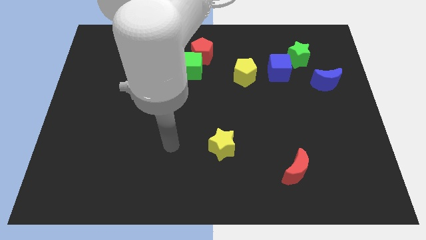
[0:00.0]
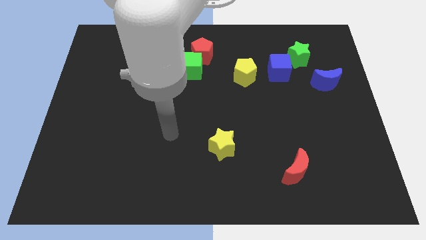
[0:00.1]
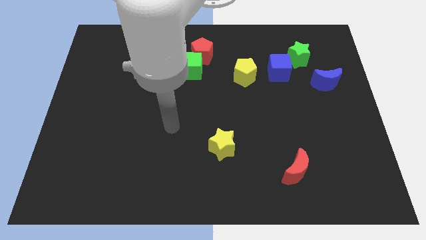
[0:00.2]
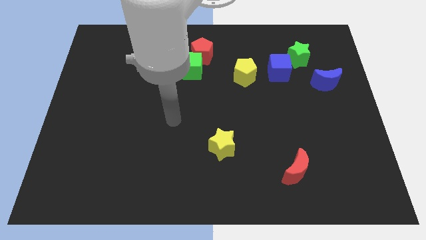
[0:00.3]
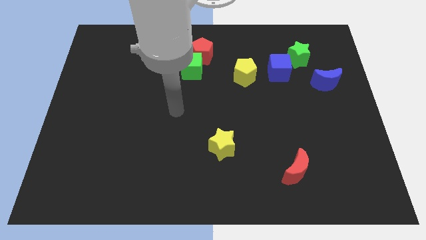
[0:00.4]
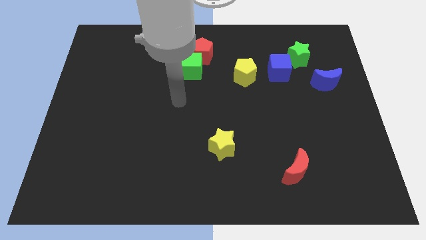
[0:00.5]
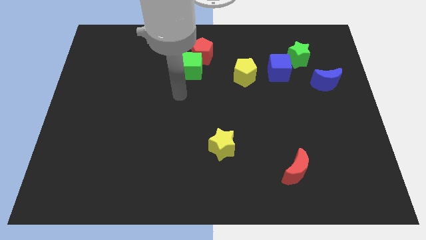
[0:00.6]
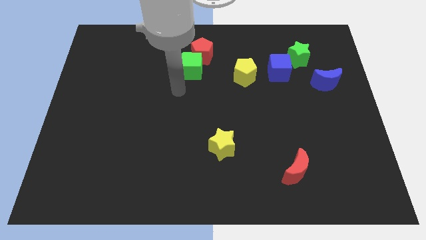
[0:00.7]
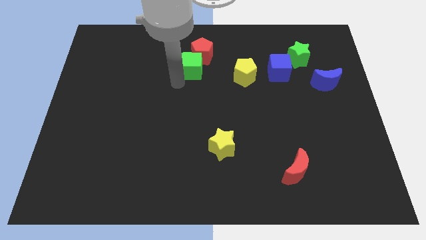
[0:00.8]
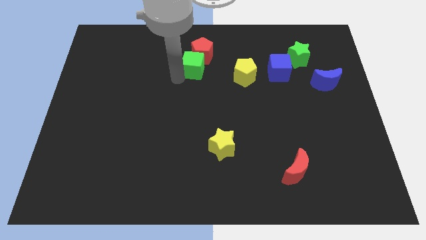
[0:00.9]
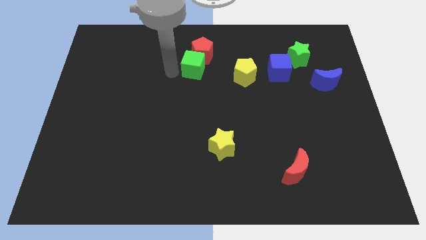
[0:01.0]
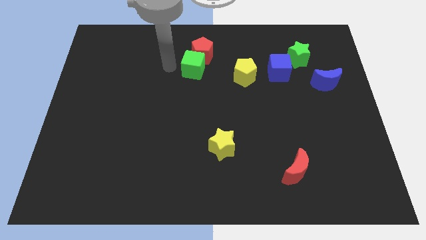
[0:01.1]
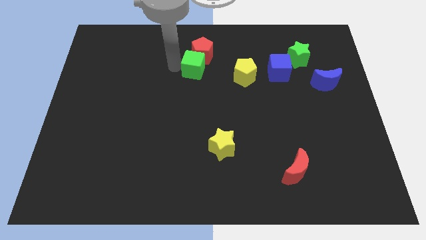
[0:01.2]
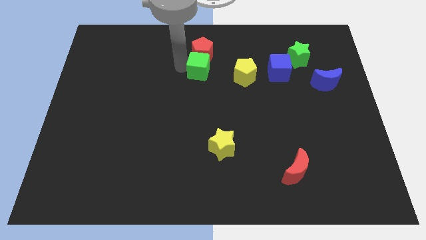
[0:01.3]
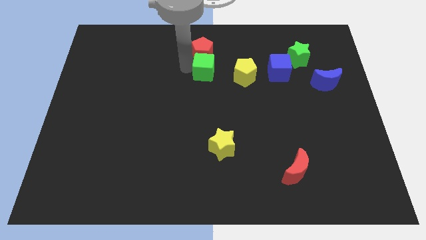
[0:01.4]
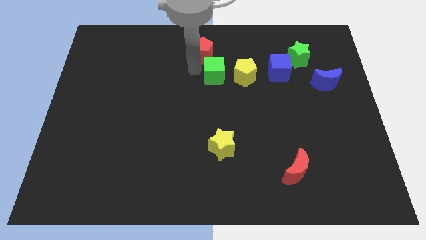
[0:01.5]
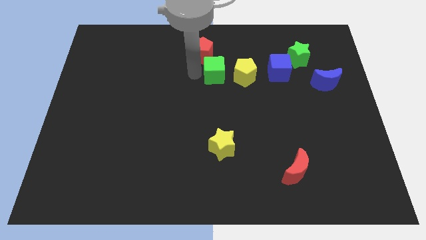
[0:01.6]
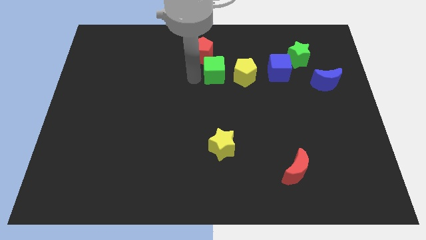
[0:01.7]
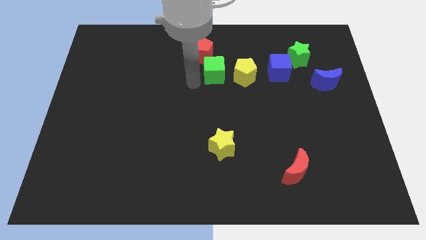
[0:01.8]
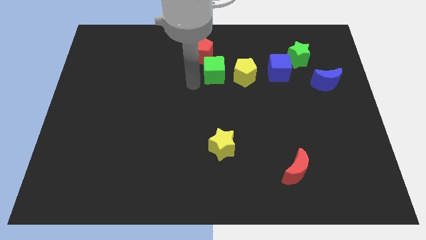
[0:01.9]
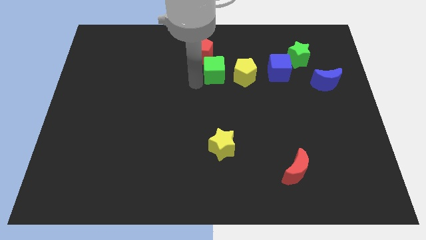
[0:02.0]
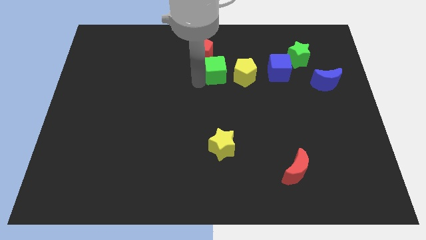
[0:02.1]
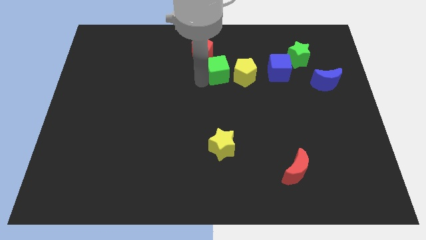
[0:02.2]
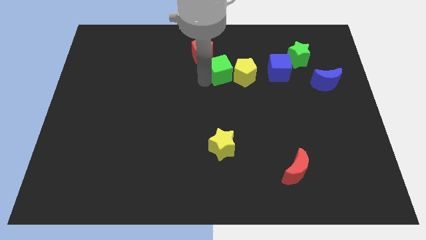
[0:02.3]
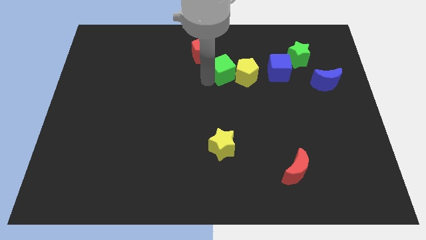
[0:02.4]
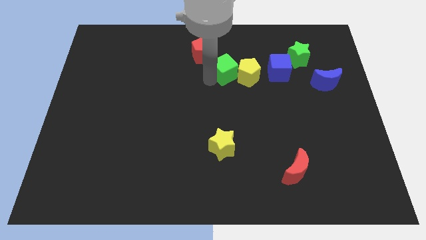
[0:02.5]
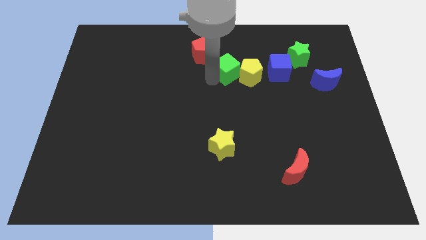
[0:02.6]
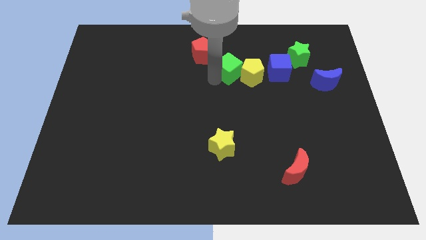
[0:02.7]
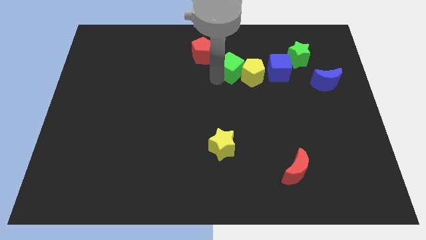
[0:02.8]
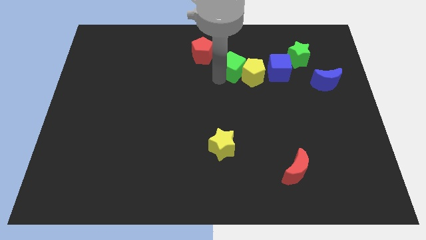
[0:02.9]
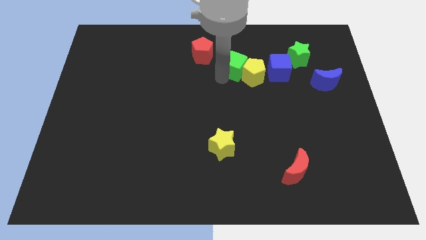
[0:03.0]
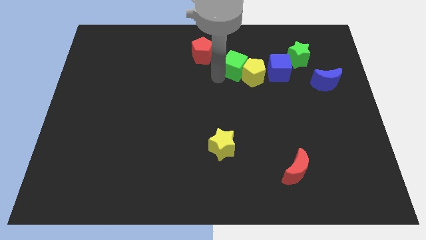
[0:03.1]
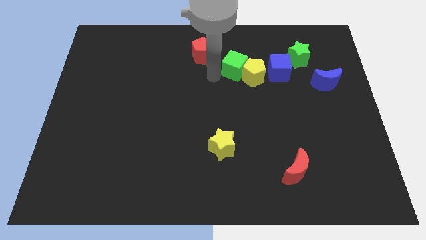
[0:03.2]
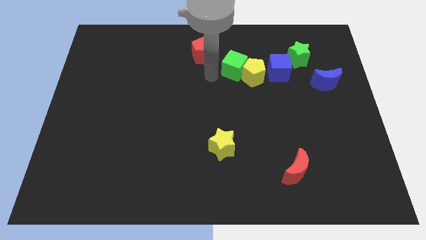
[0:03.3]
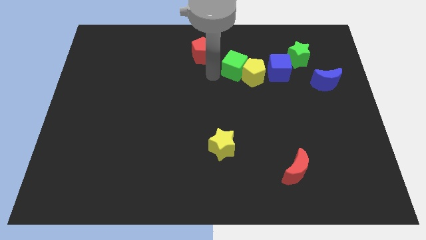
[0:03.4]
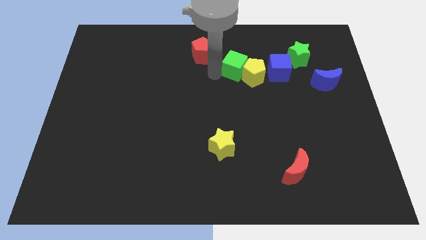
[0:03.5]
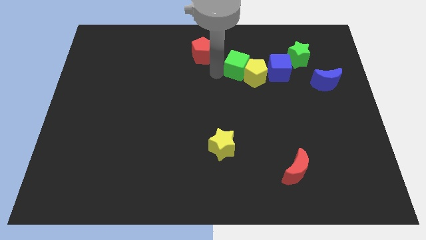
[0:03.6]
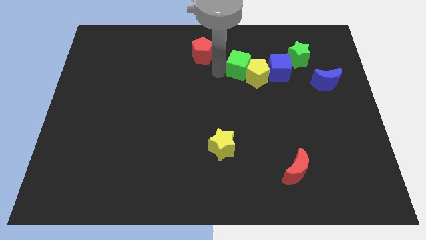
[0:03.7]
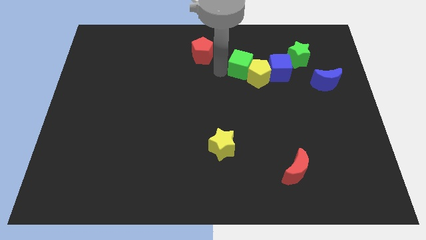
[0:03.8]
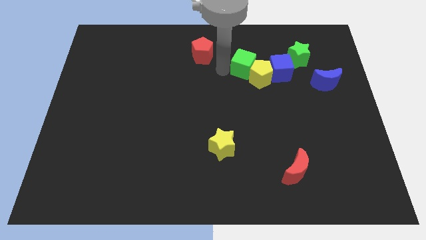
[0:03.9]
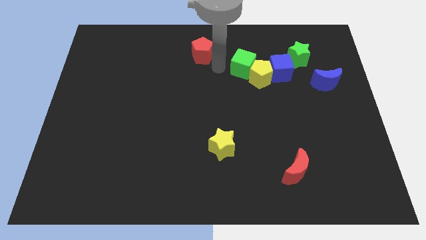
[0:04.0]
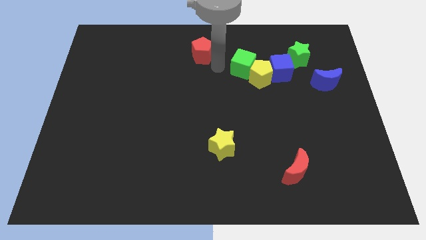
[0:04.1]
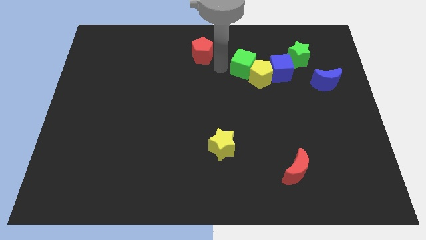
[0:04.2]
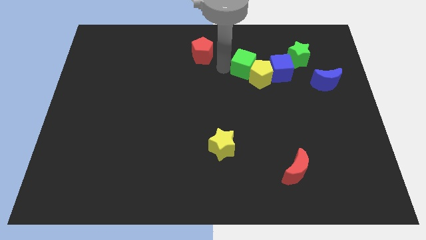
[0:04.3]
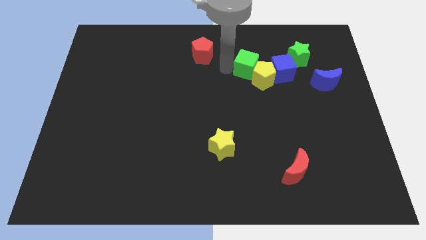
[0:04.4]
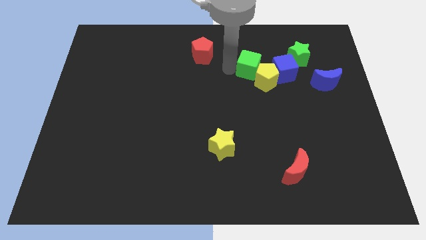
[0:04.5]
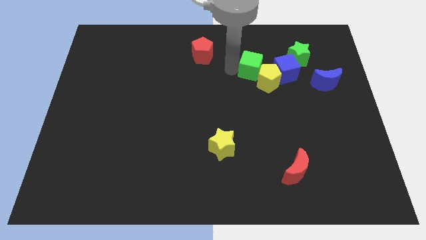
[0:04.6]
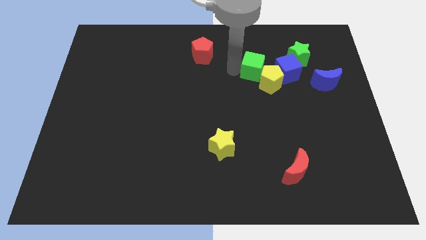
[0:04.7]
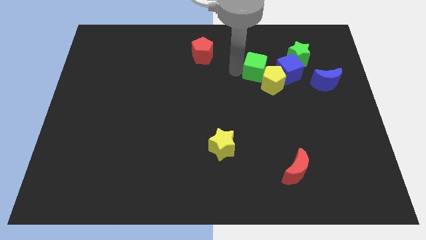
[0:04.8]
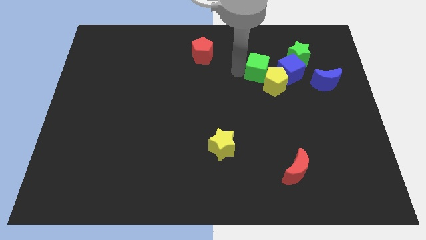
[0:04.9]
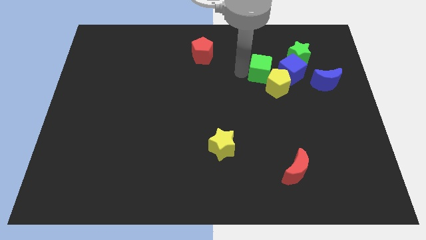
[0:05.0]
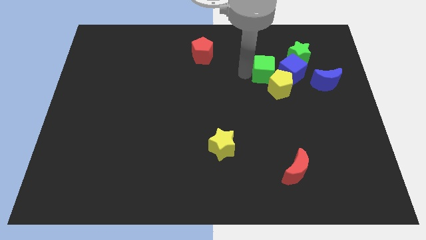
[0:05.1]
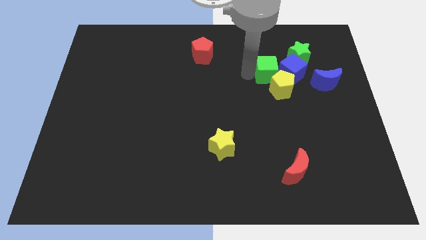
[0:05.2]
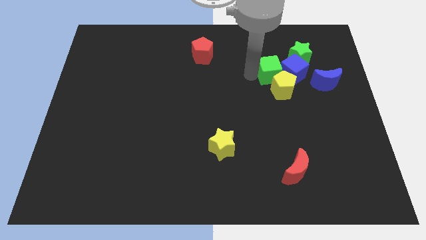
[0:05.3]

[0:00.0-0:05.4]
slide the green cube to the blue cube

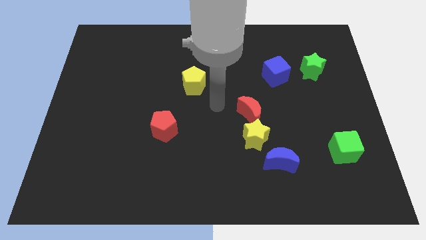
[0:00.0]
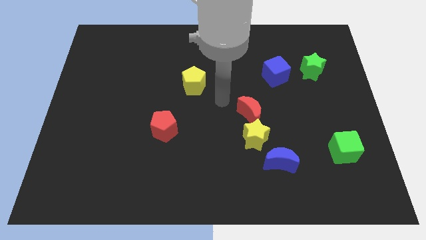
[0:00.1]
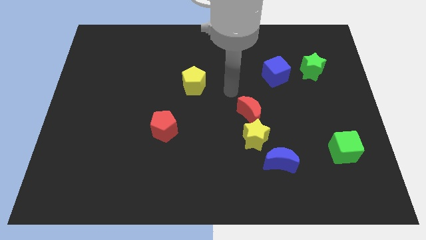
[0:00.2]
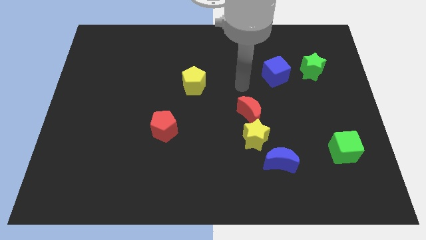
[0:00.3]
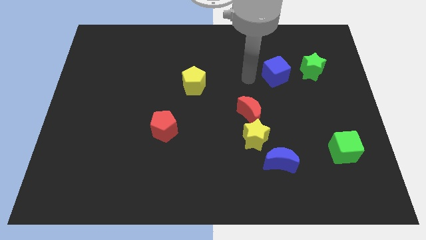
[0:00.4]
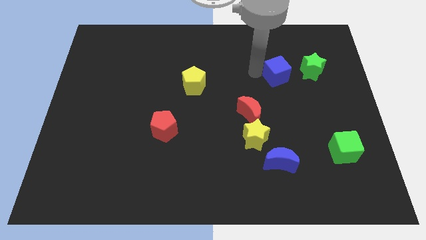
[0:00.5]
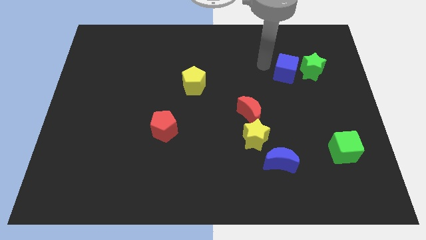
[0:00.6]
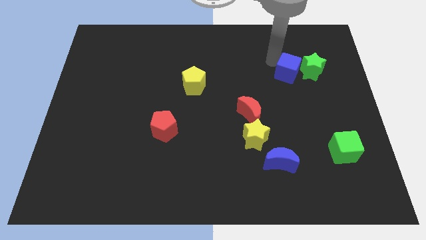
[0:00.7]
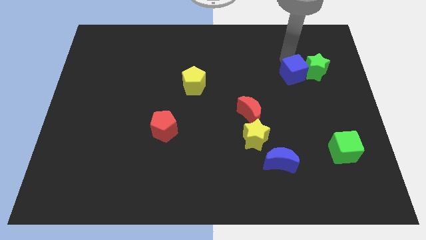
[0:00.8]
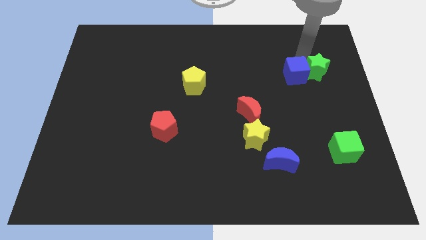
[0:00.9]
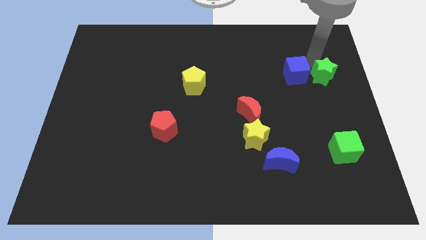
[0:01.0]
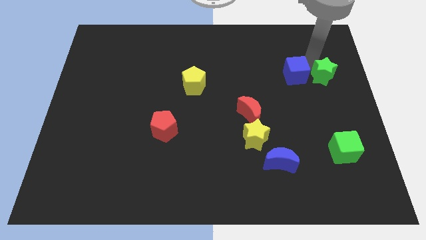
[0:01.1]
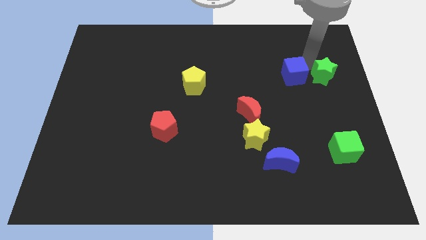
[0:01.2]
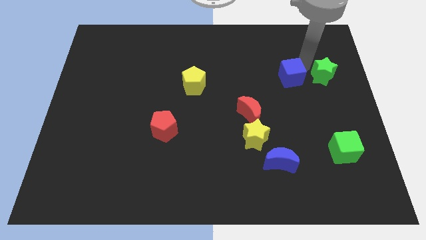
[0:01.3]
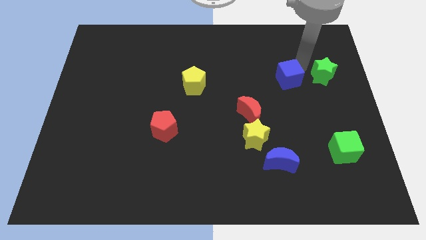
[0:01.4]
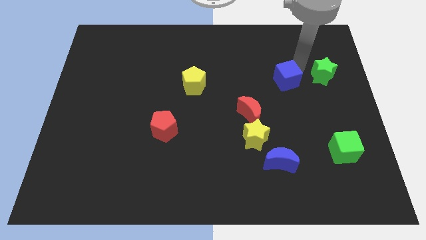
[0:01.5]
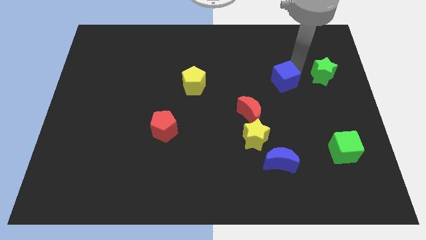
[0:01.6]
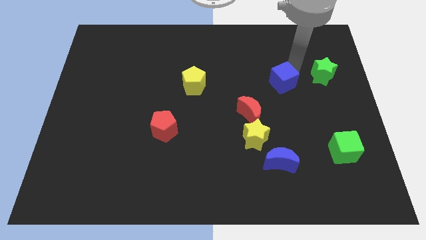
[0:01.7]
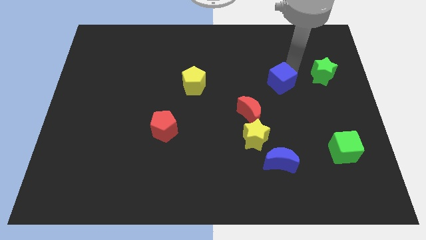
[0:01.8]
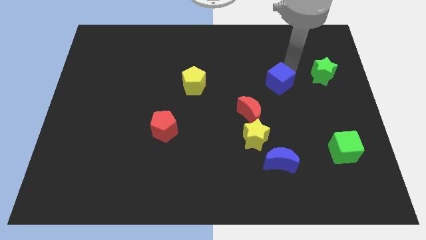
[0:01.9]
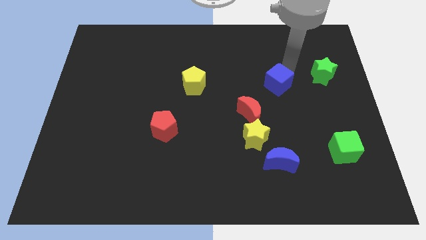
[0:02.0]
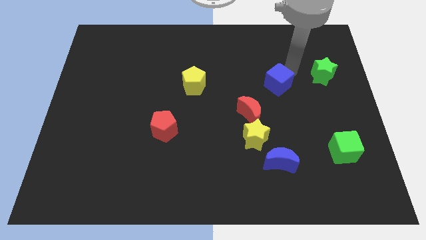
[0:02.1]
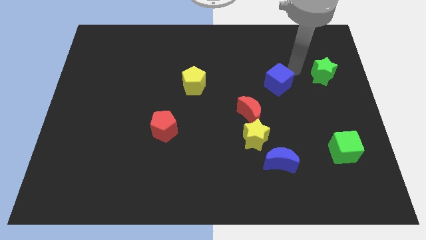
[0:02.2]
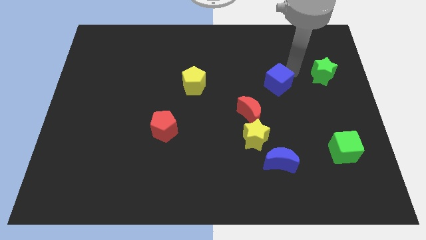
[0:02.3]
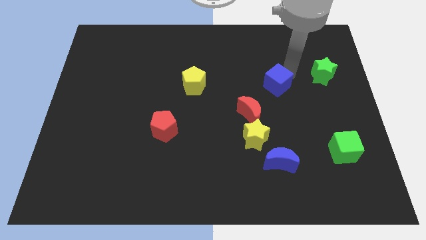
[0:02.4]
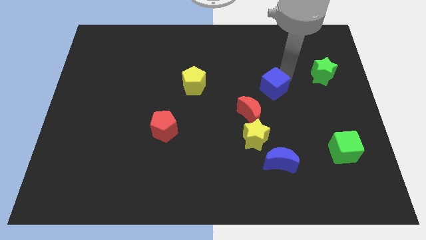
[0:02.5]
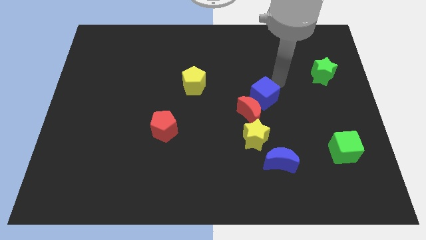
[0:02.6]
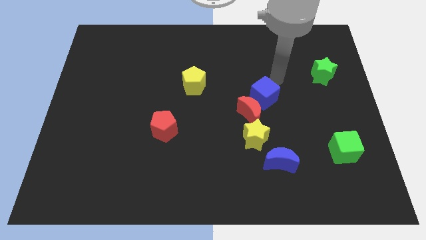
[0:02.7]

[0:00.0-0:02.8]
put the blue cube towards the red moon
